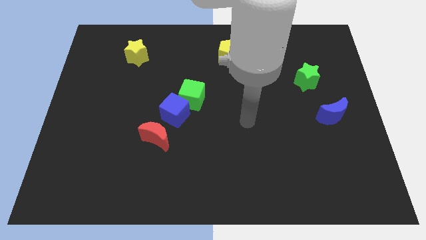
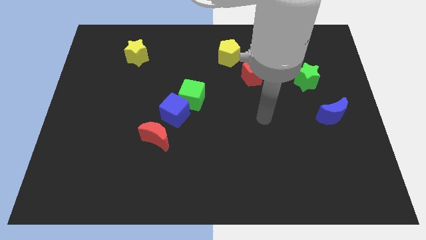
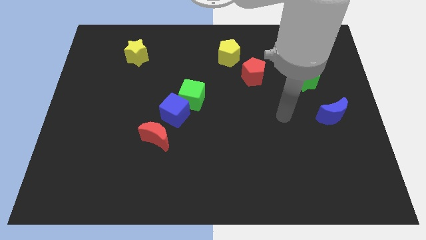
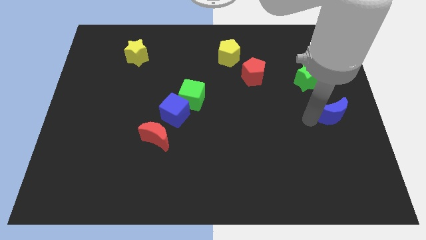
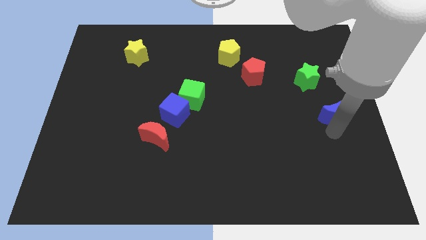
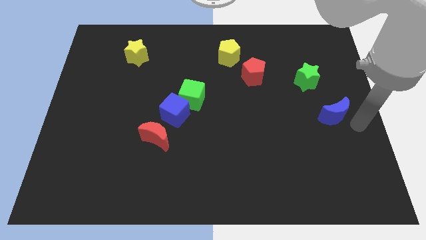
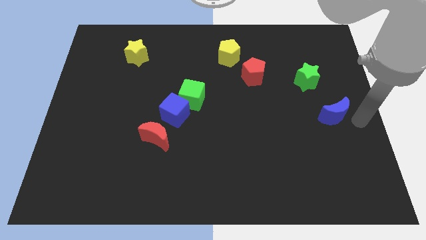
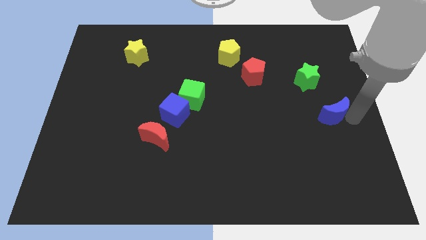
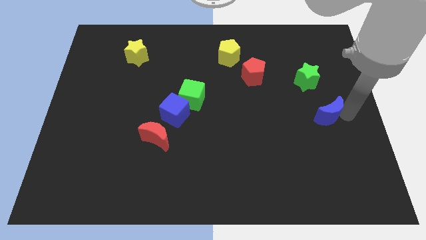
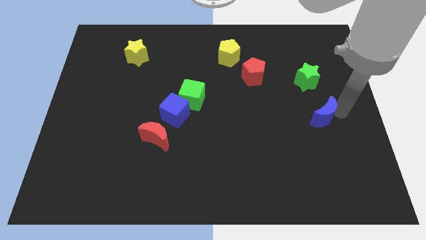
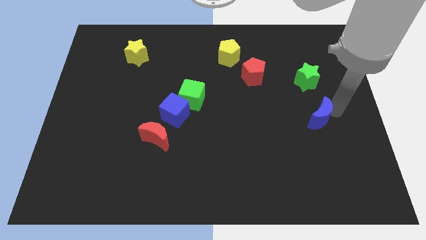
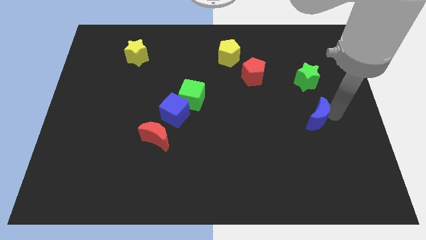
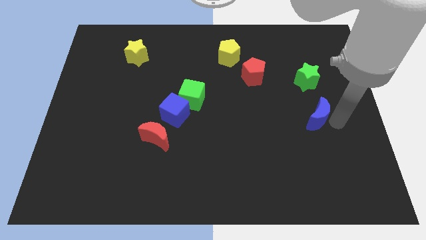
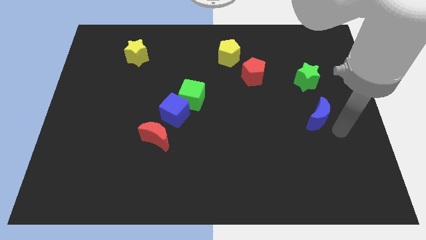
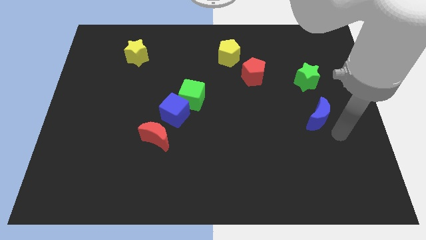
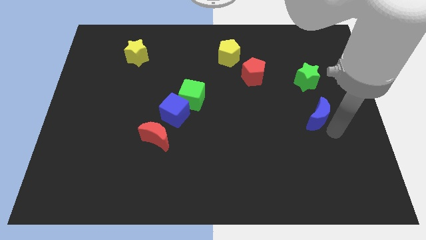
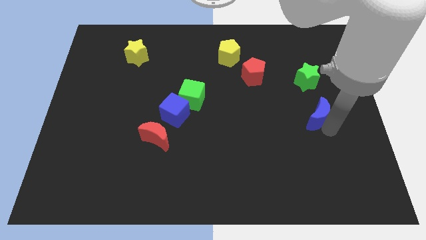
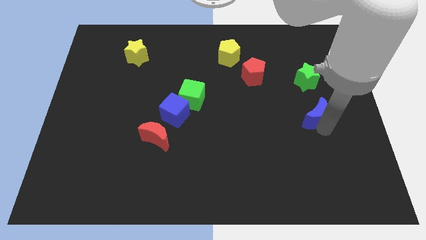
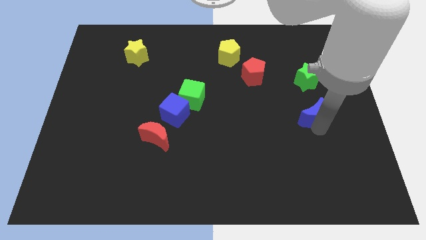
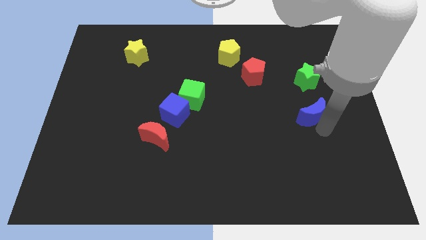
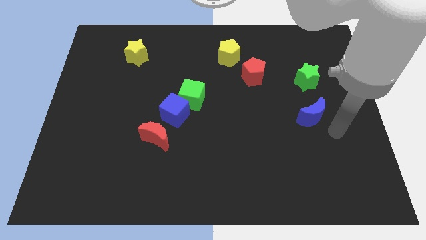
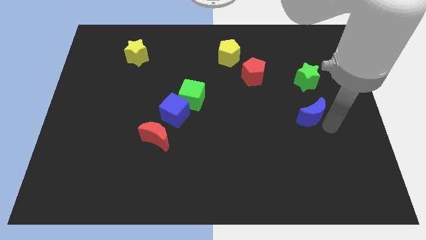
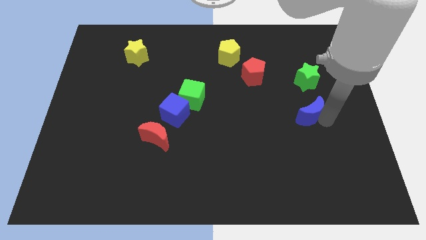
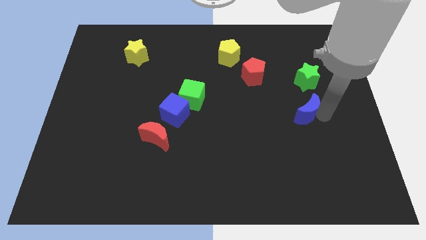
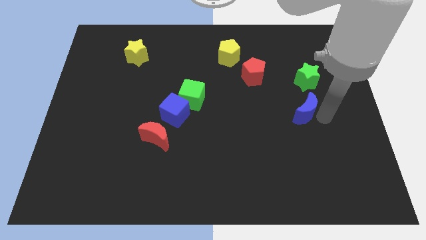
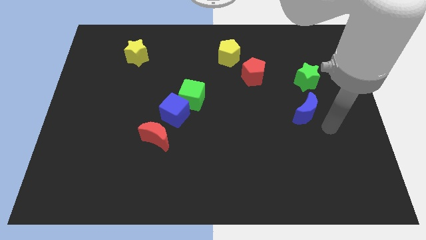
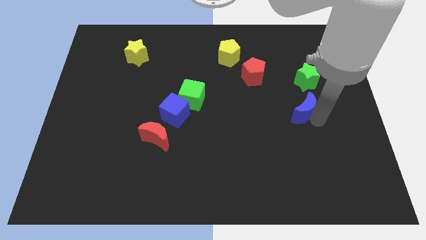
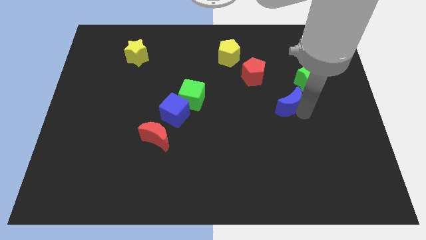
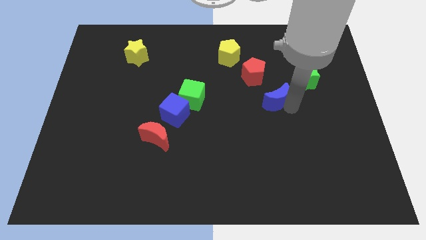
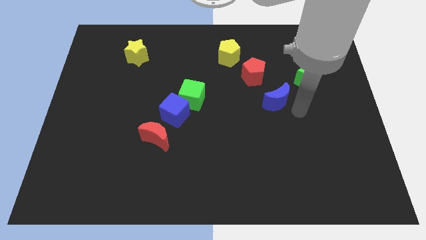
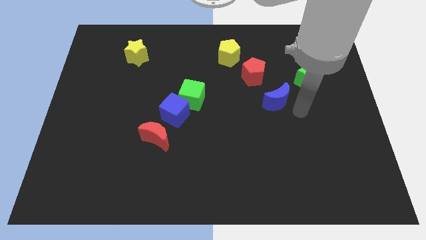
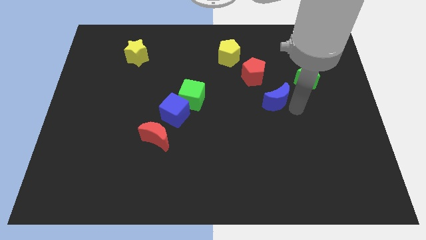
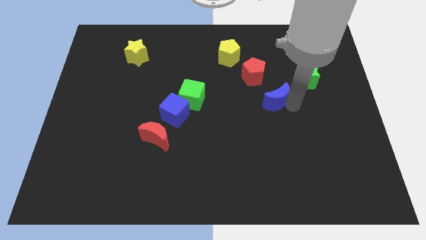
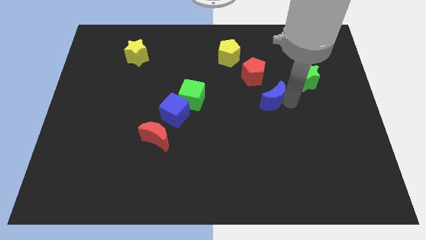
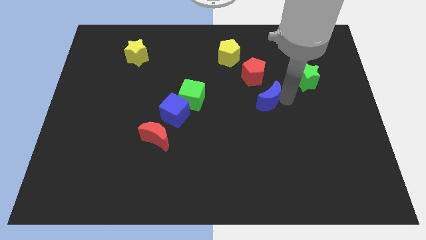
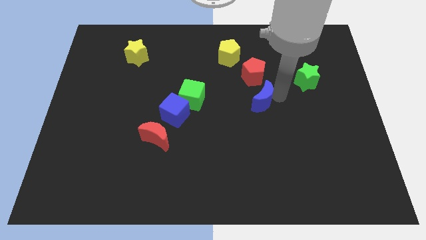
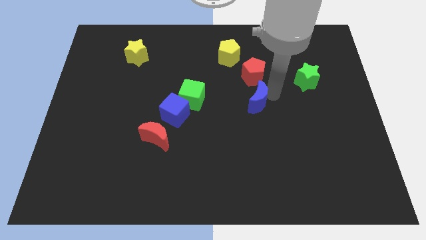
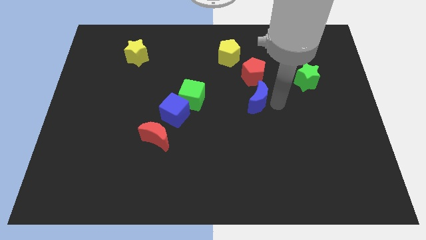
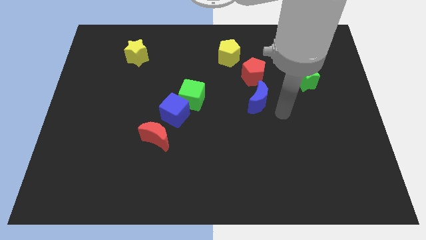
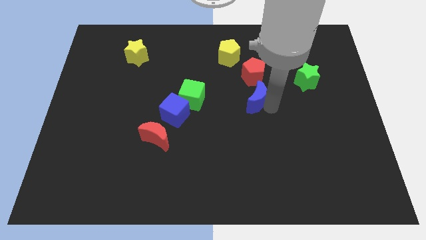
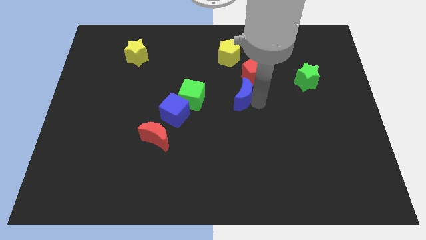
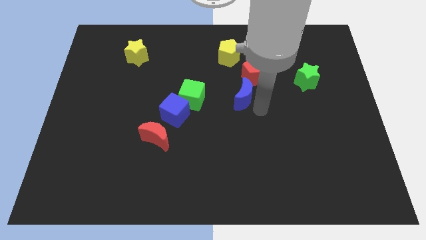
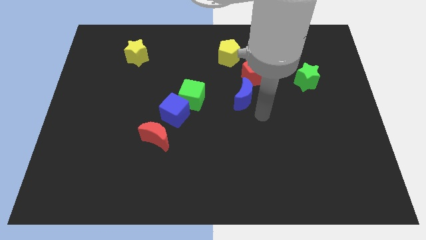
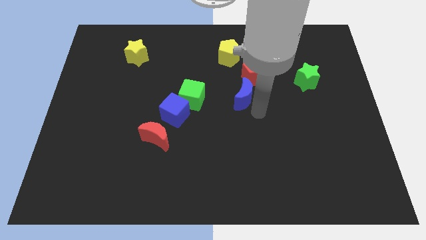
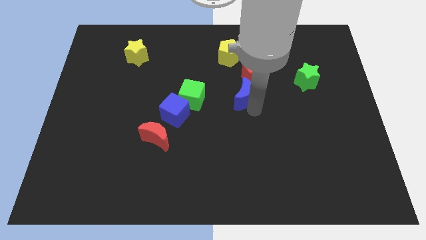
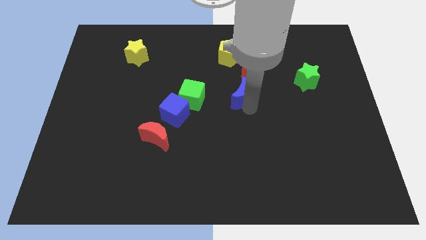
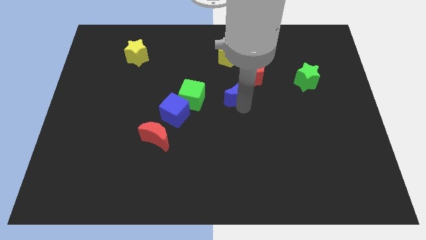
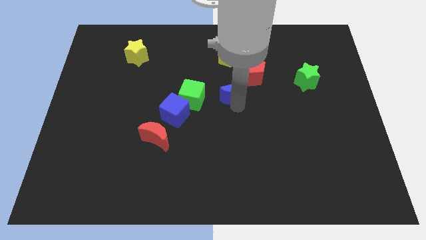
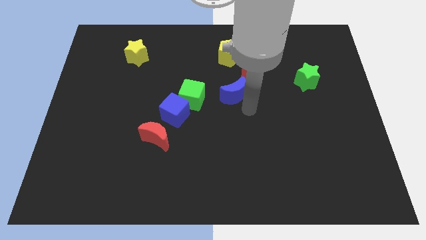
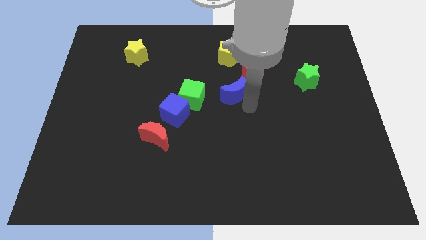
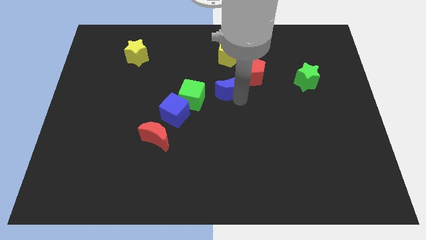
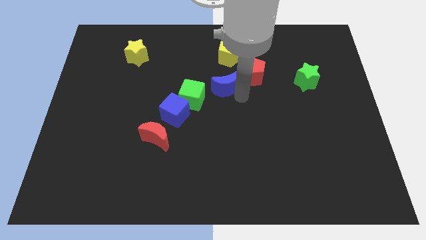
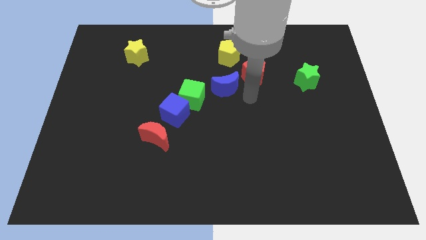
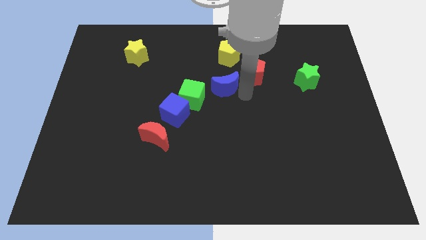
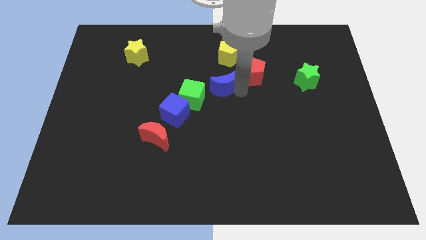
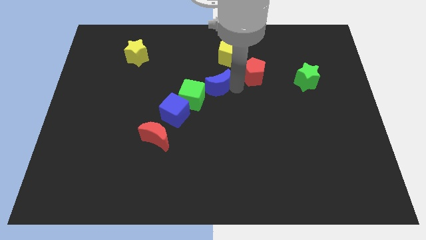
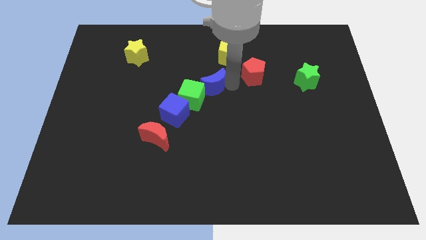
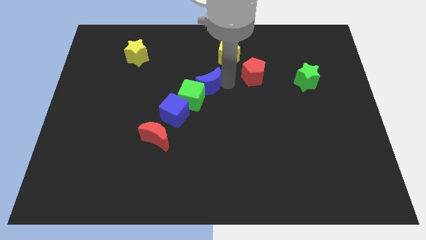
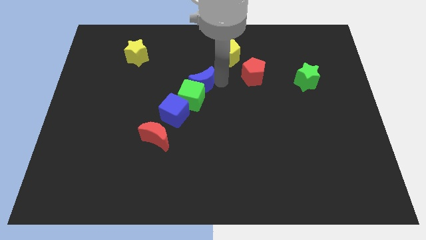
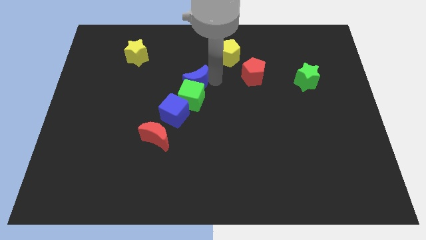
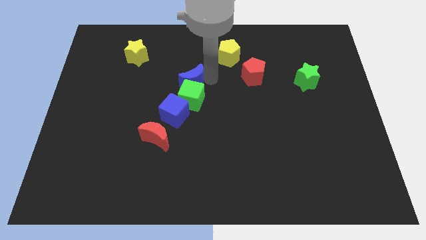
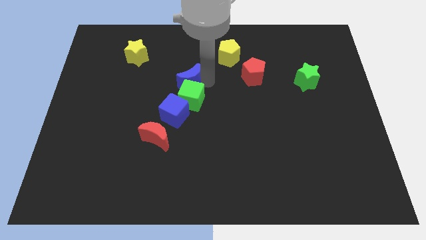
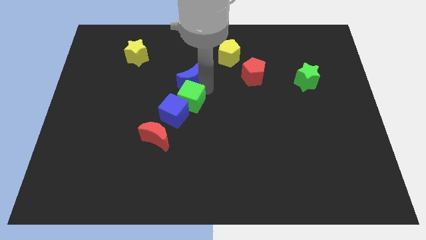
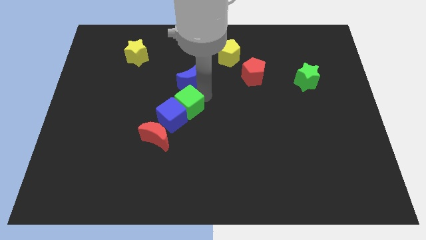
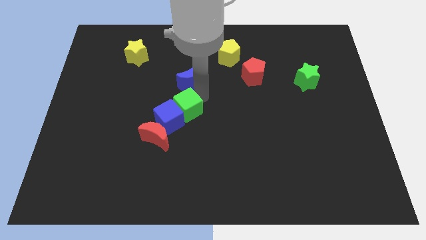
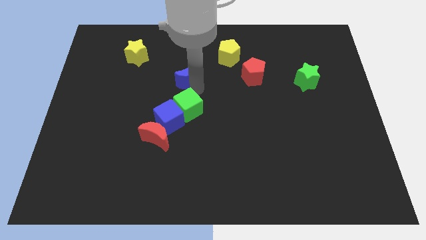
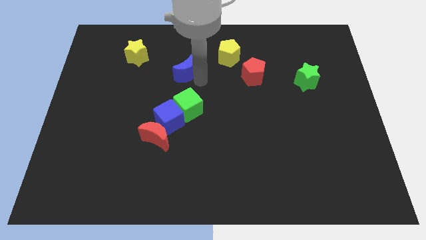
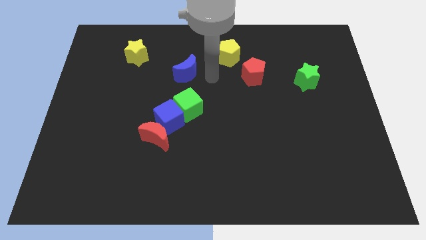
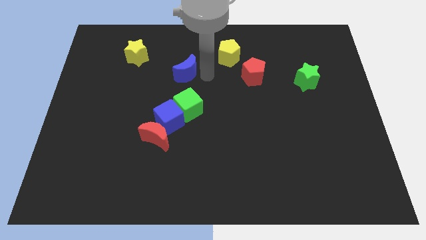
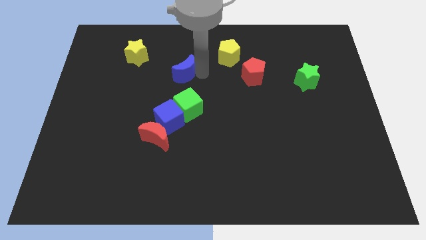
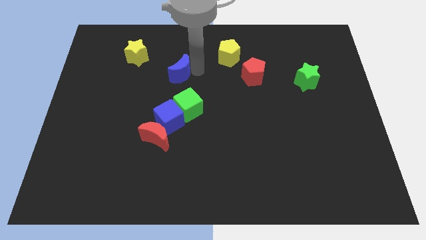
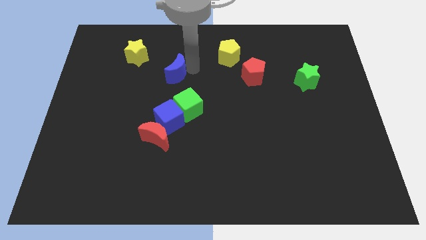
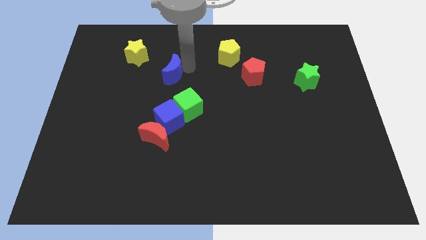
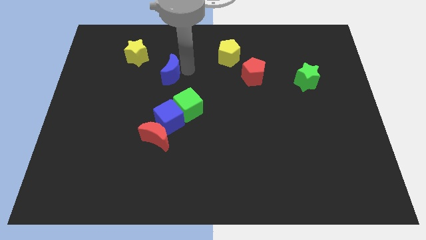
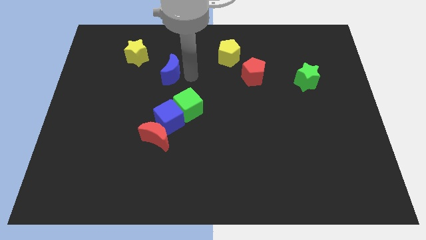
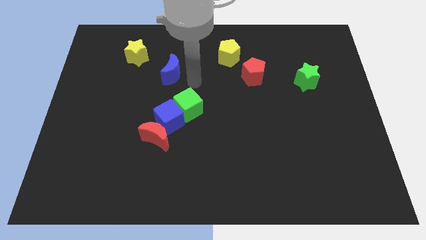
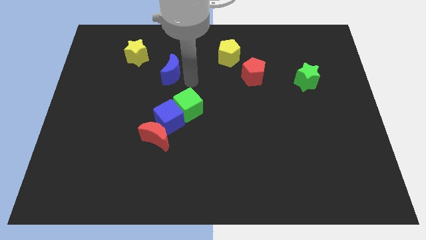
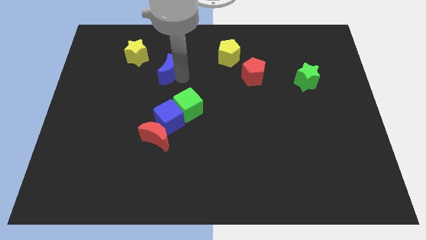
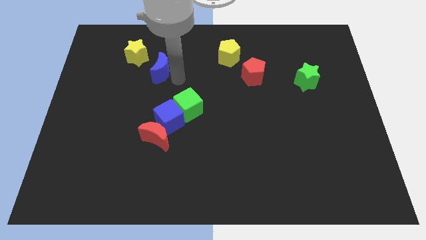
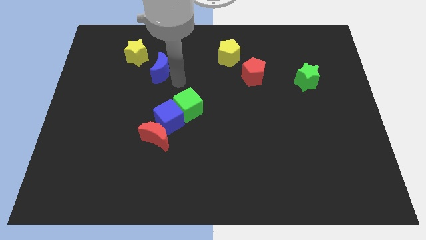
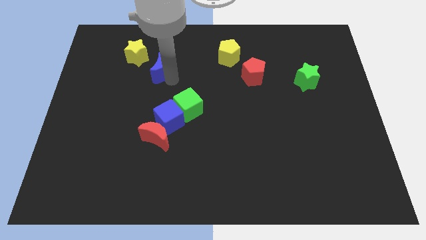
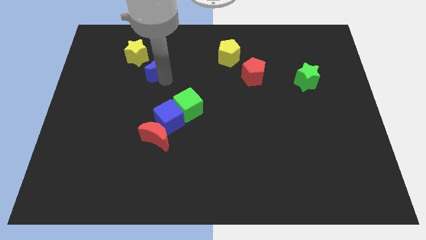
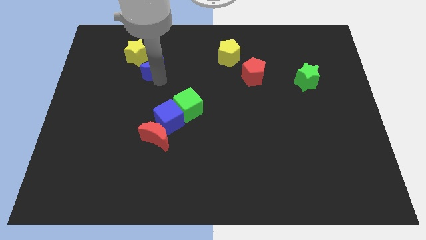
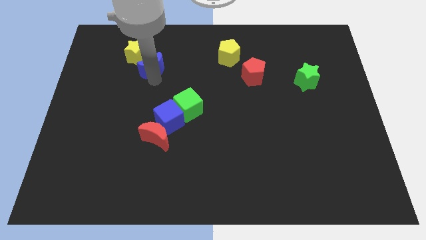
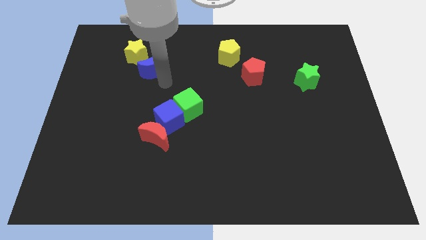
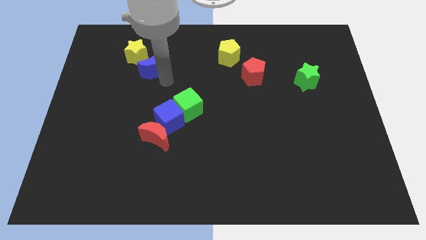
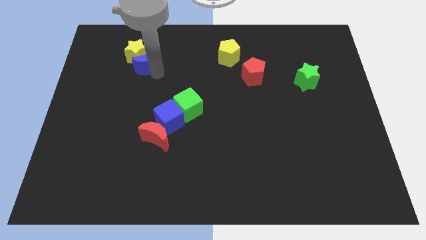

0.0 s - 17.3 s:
push the blue moon towards the yellow star
